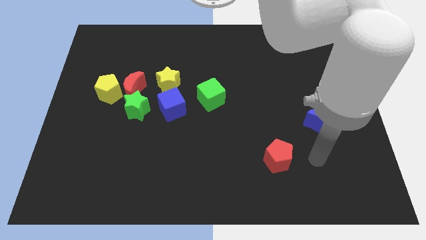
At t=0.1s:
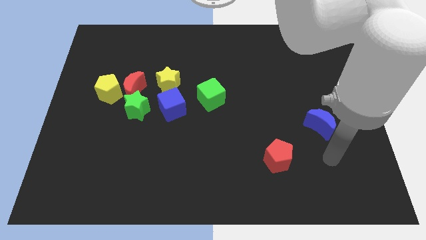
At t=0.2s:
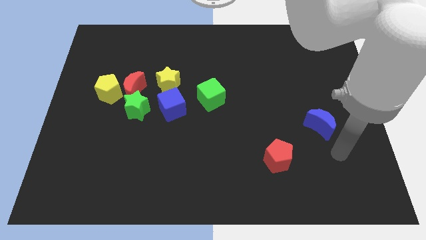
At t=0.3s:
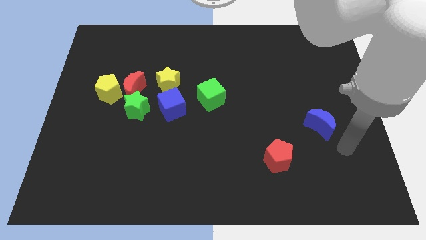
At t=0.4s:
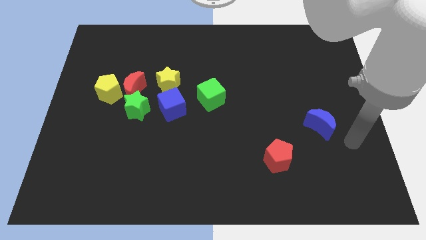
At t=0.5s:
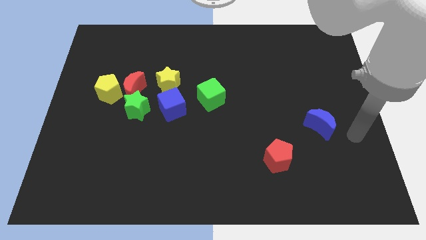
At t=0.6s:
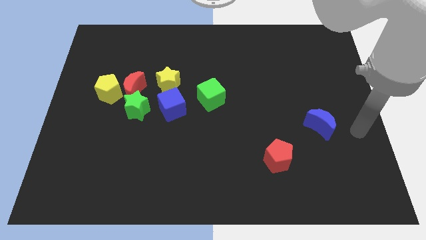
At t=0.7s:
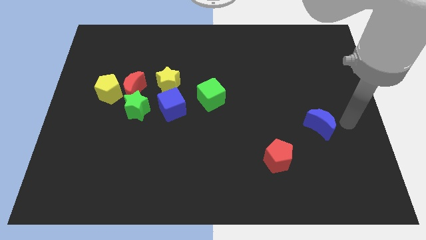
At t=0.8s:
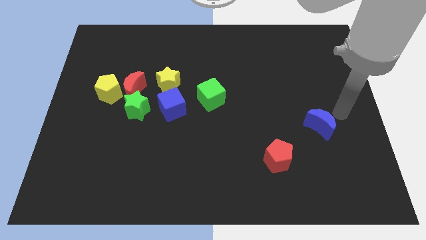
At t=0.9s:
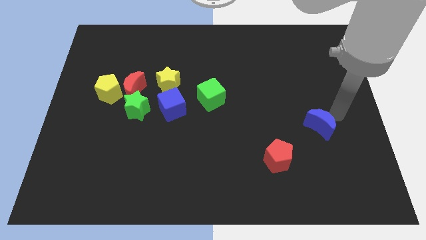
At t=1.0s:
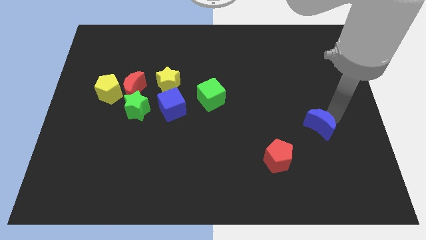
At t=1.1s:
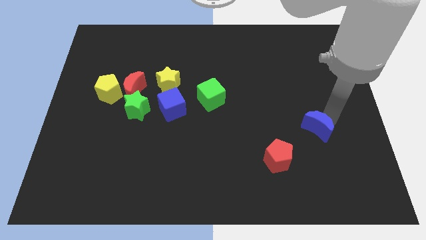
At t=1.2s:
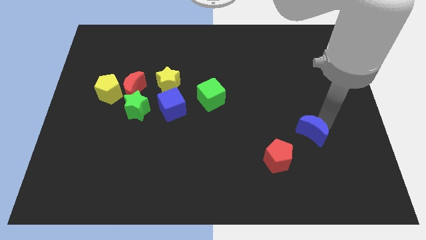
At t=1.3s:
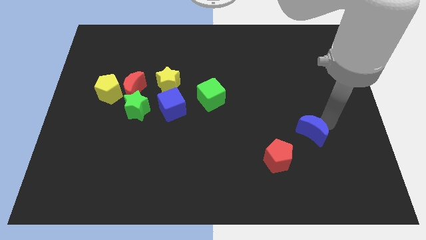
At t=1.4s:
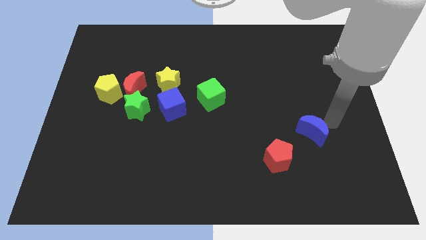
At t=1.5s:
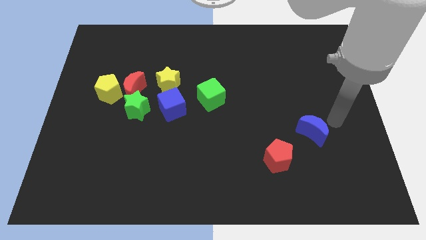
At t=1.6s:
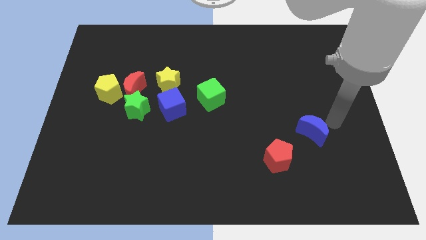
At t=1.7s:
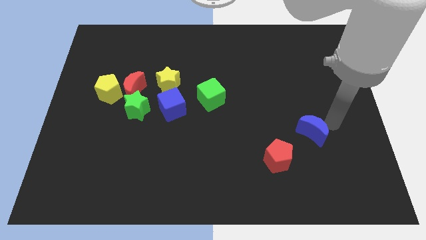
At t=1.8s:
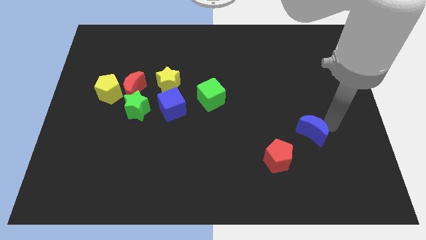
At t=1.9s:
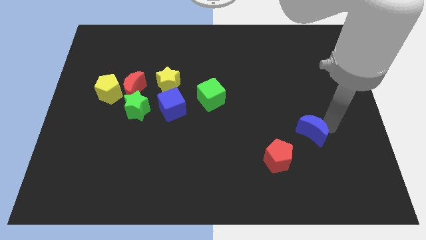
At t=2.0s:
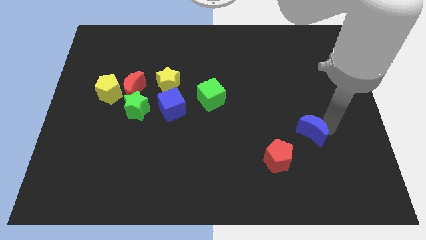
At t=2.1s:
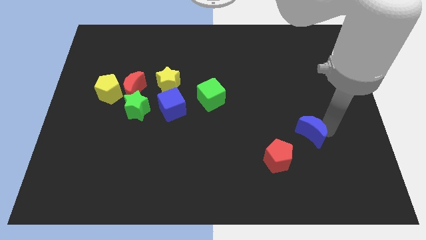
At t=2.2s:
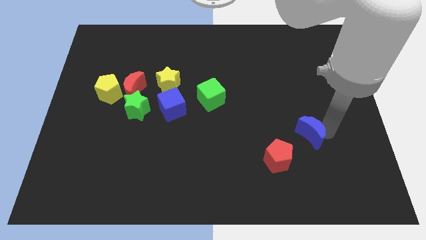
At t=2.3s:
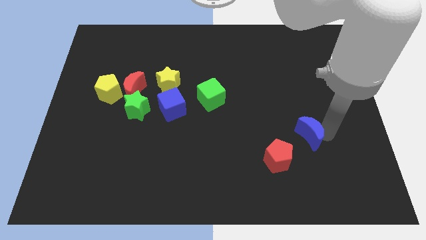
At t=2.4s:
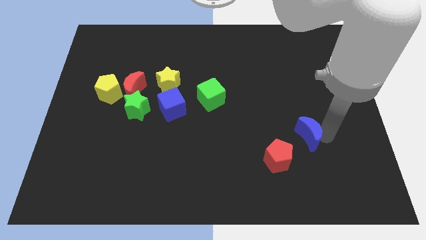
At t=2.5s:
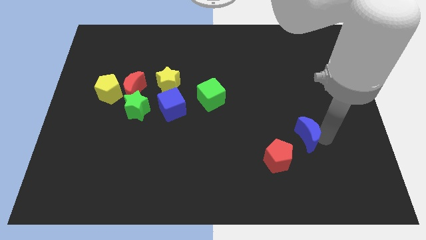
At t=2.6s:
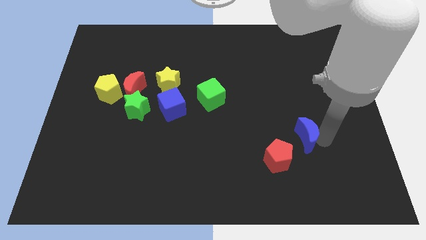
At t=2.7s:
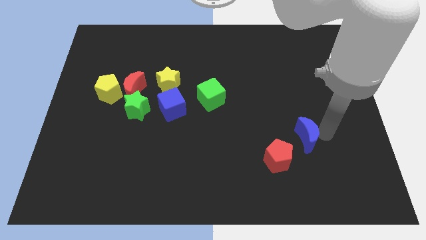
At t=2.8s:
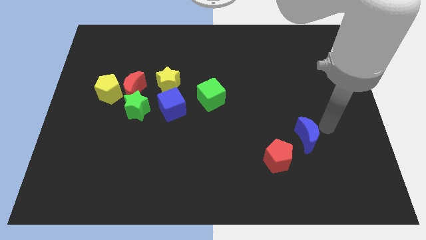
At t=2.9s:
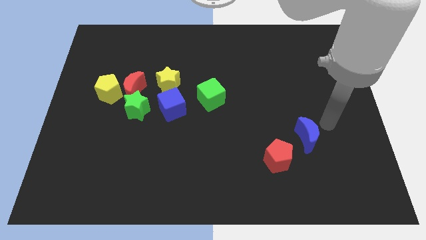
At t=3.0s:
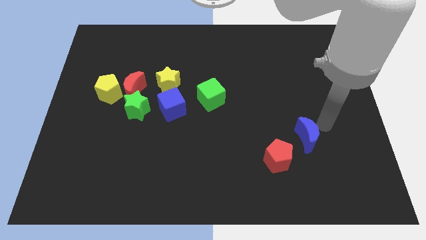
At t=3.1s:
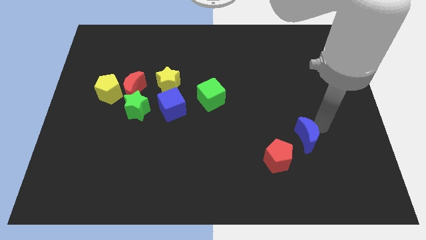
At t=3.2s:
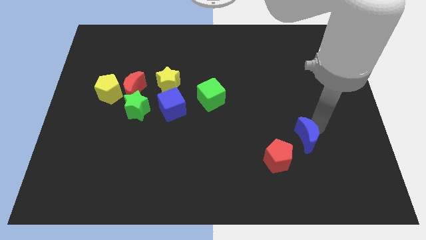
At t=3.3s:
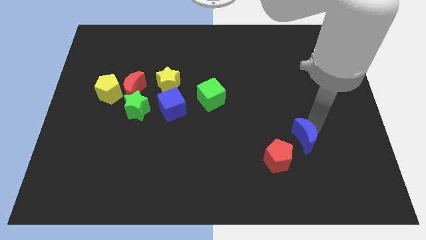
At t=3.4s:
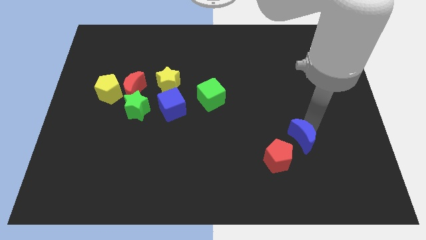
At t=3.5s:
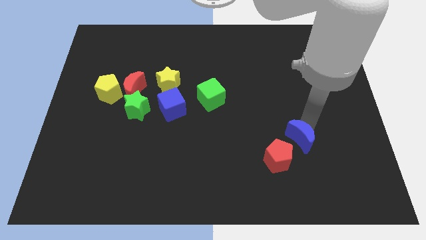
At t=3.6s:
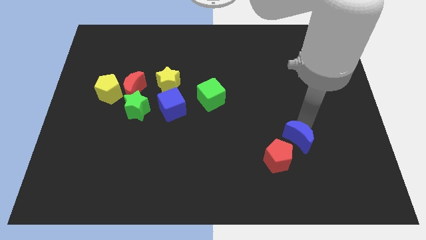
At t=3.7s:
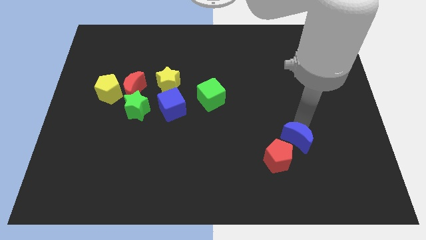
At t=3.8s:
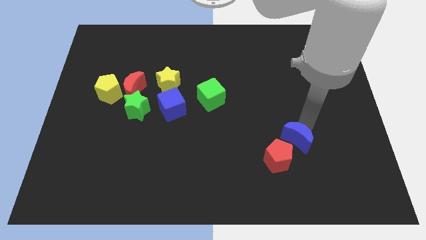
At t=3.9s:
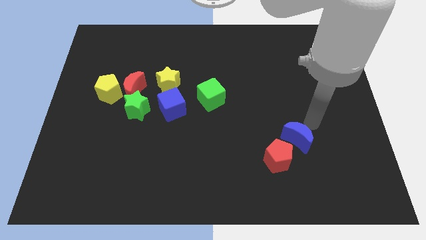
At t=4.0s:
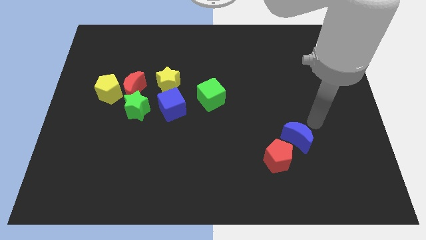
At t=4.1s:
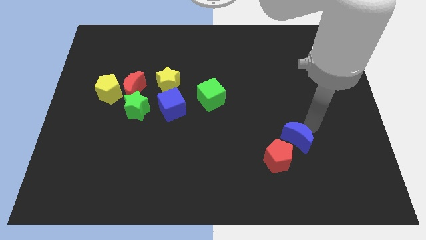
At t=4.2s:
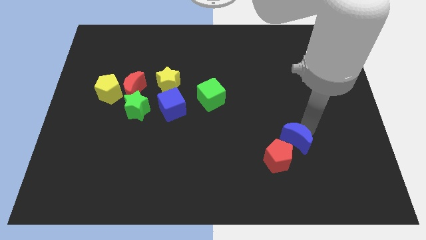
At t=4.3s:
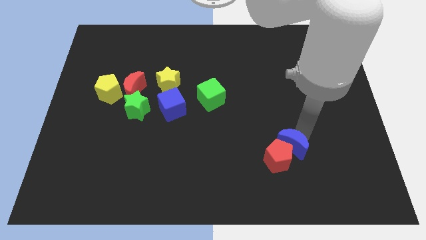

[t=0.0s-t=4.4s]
put the blue moon to the red pentagon

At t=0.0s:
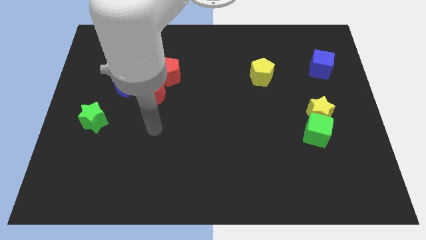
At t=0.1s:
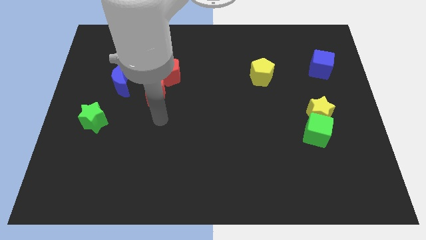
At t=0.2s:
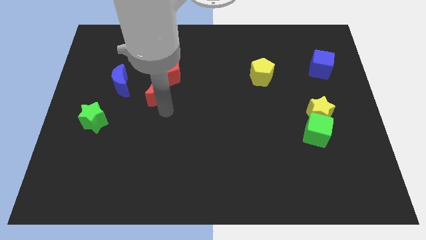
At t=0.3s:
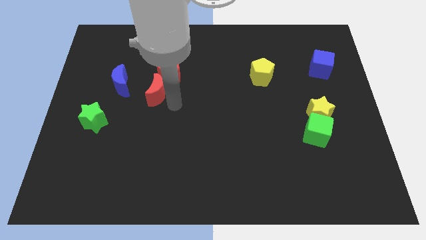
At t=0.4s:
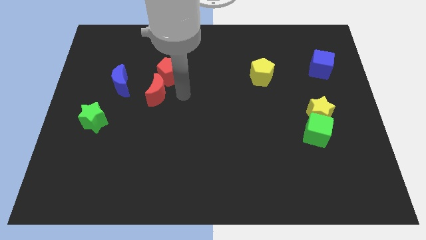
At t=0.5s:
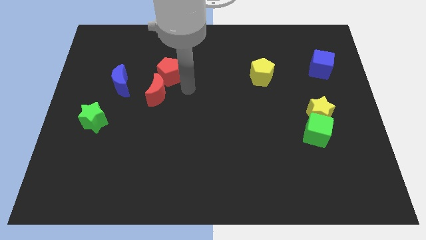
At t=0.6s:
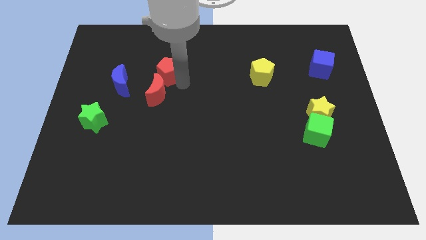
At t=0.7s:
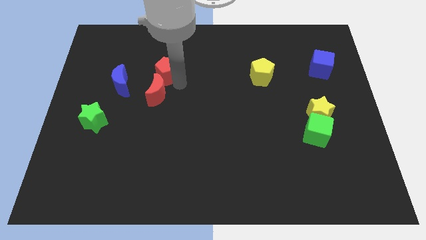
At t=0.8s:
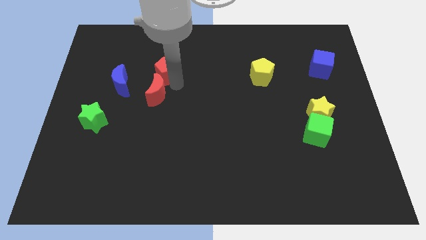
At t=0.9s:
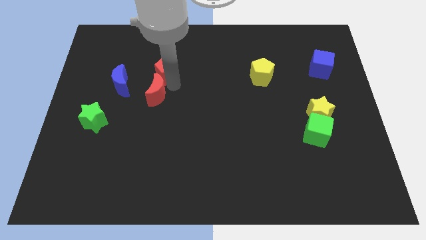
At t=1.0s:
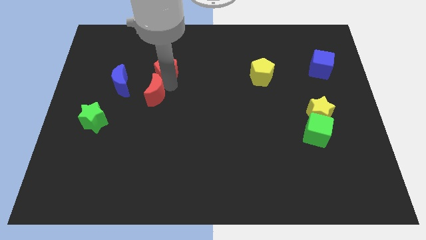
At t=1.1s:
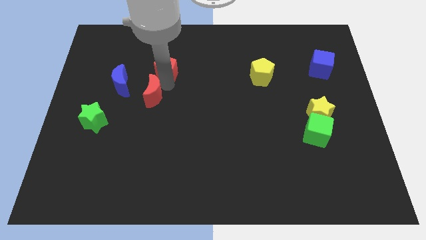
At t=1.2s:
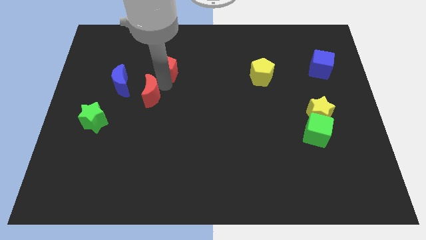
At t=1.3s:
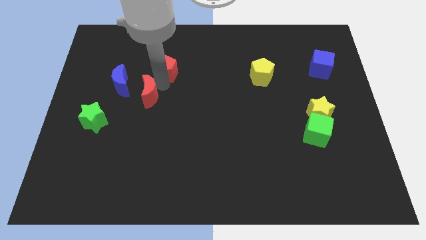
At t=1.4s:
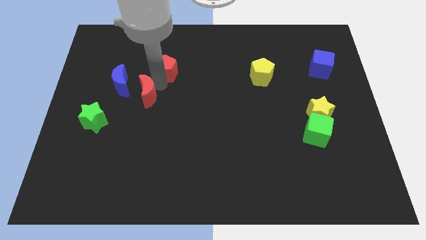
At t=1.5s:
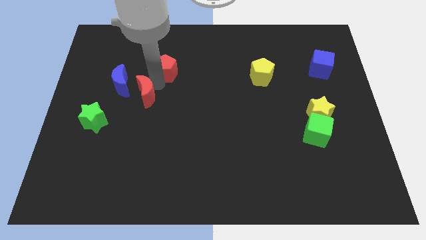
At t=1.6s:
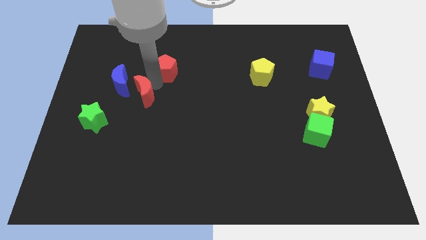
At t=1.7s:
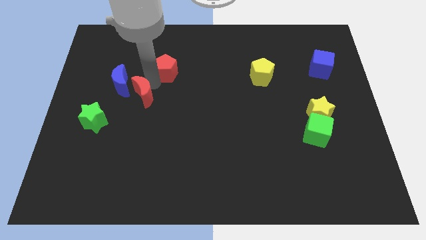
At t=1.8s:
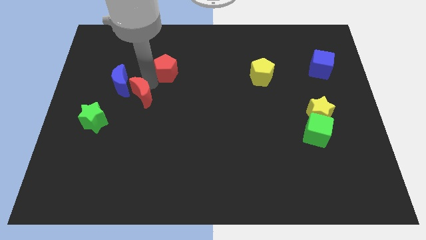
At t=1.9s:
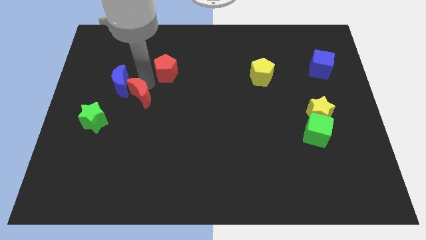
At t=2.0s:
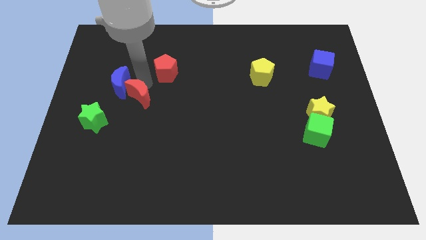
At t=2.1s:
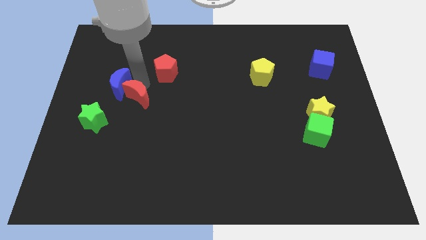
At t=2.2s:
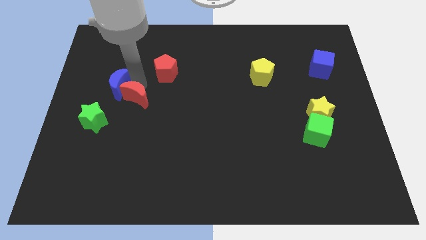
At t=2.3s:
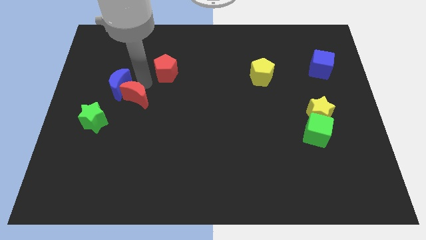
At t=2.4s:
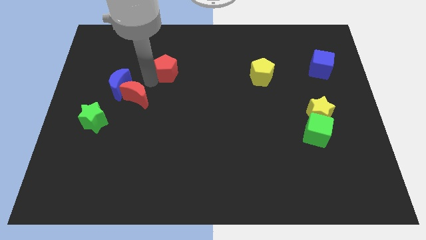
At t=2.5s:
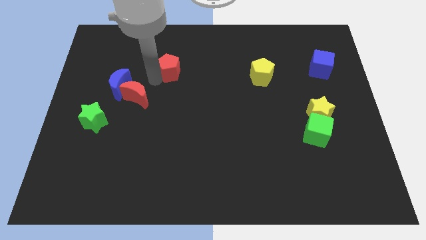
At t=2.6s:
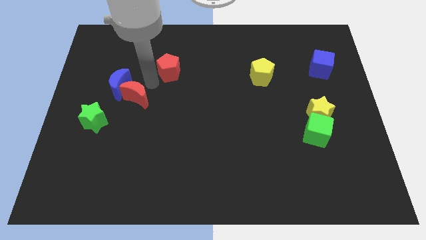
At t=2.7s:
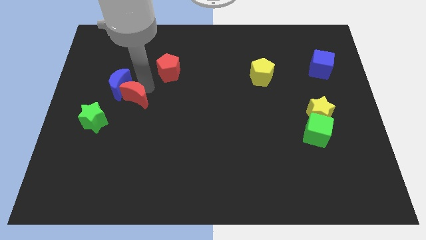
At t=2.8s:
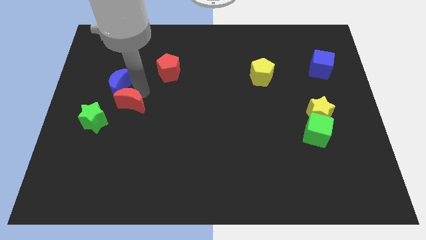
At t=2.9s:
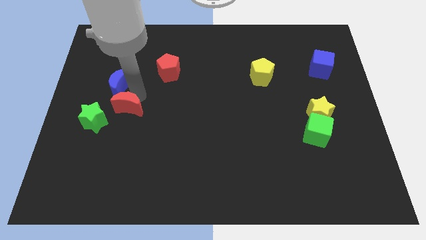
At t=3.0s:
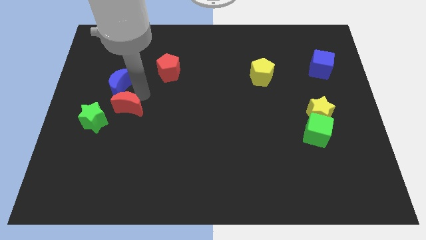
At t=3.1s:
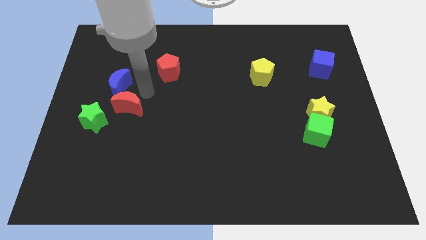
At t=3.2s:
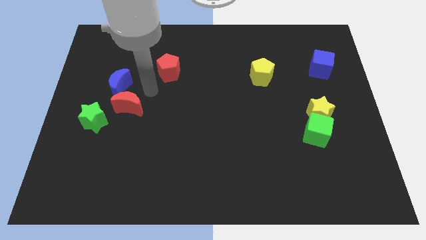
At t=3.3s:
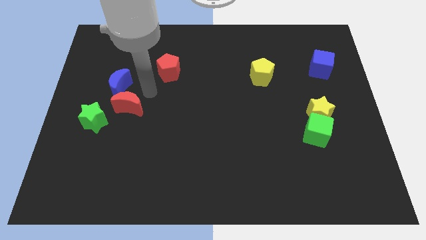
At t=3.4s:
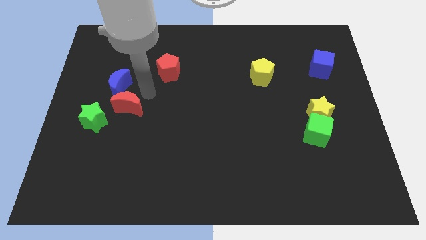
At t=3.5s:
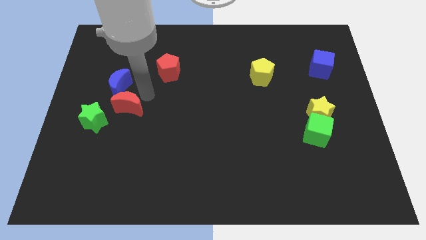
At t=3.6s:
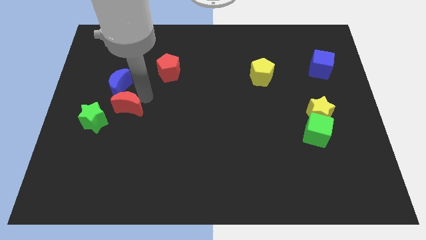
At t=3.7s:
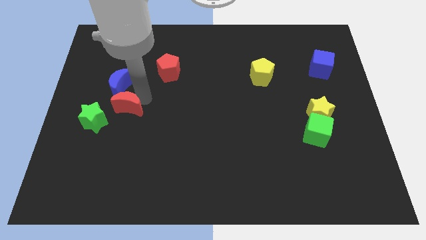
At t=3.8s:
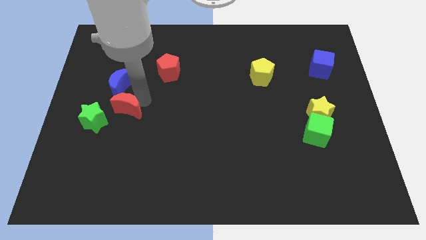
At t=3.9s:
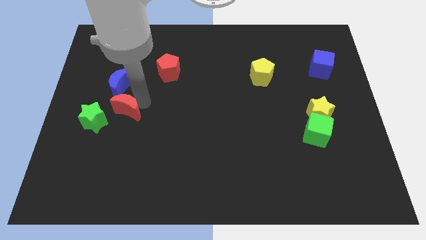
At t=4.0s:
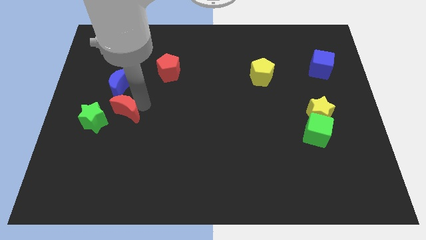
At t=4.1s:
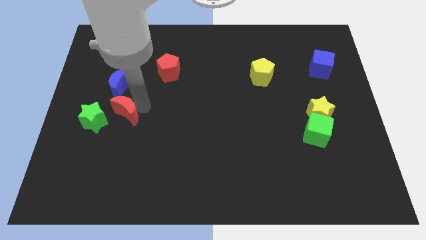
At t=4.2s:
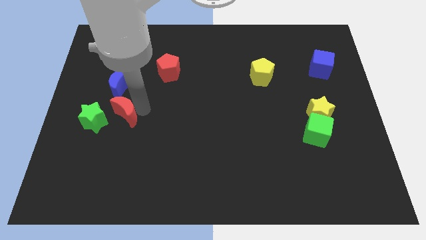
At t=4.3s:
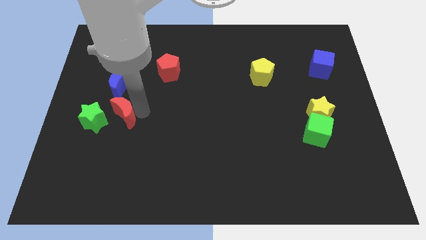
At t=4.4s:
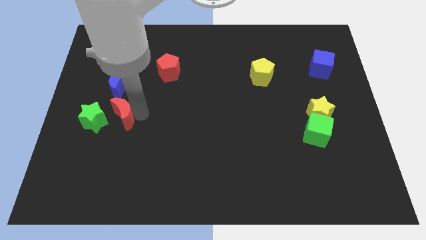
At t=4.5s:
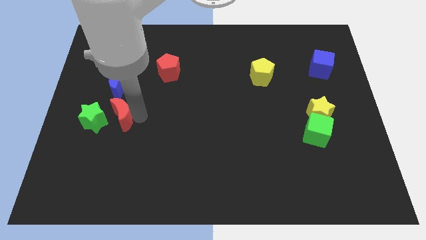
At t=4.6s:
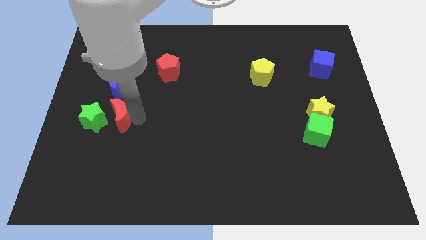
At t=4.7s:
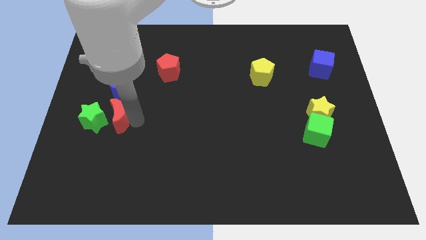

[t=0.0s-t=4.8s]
move the red moon to the green star
